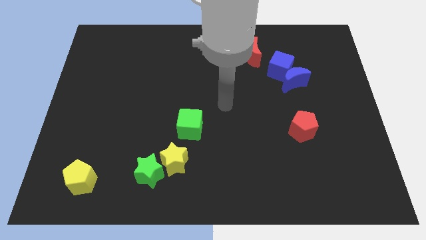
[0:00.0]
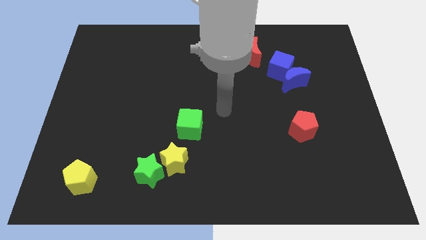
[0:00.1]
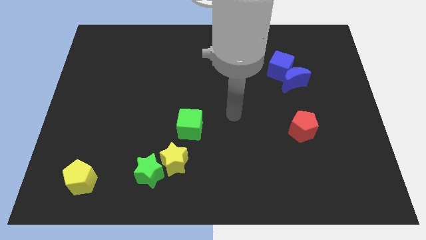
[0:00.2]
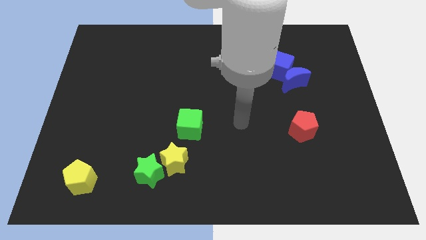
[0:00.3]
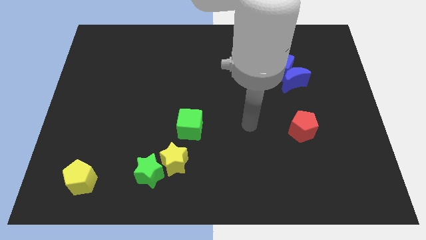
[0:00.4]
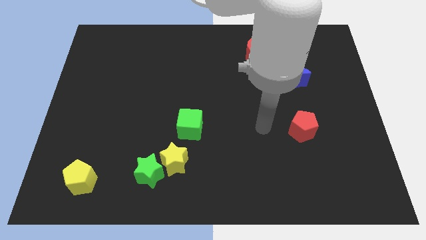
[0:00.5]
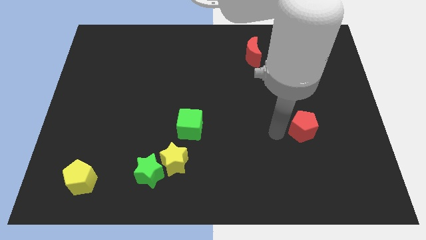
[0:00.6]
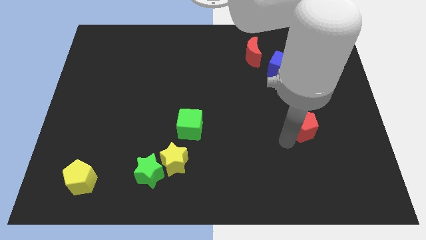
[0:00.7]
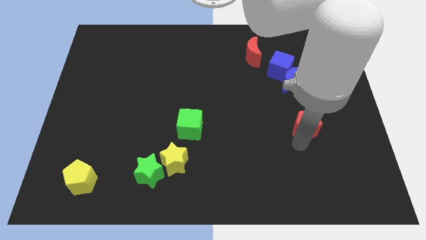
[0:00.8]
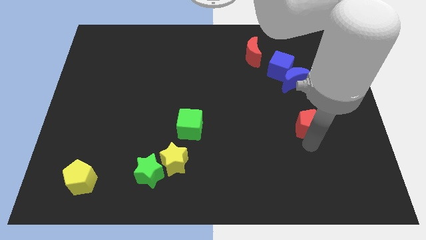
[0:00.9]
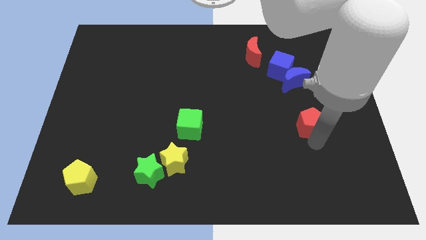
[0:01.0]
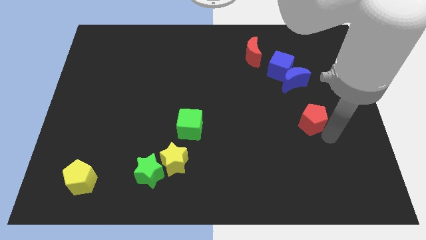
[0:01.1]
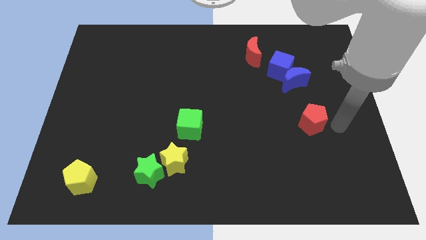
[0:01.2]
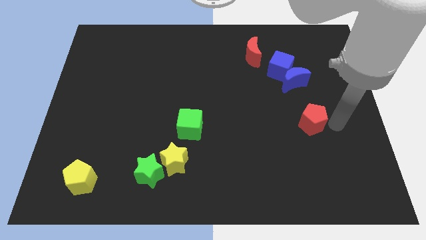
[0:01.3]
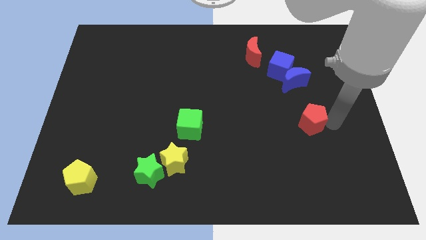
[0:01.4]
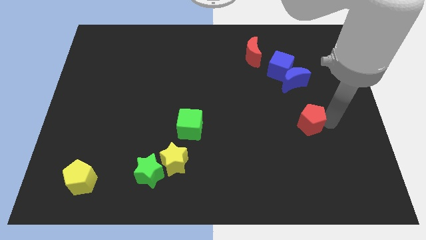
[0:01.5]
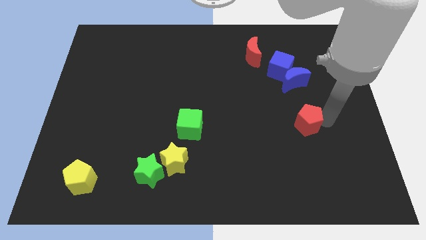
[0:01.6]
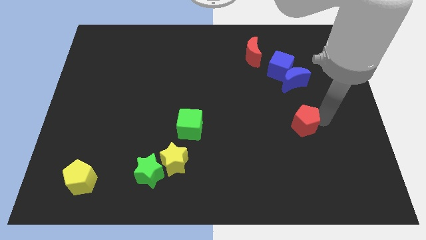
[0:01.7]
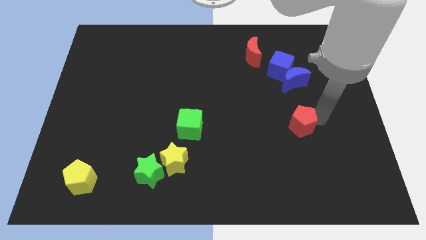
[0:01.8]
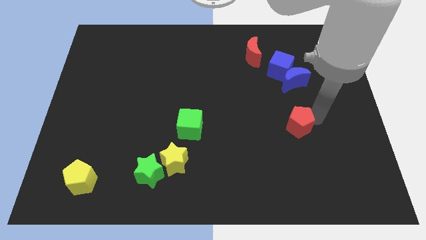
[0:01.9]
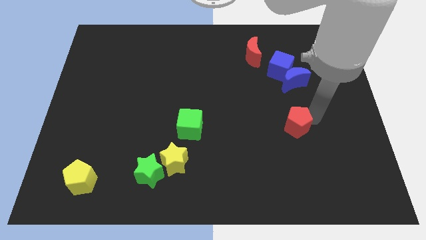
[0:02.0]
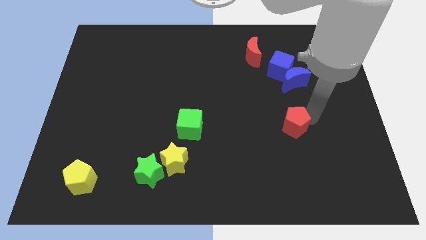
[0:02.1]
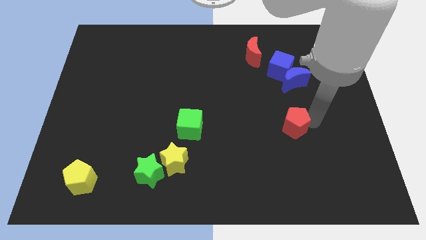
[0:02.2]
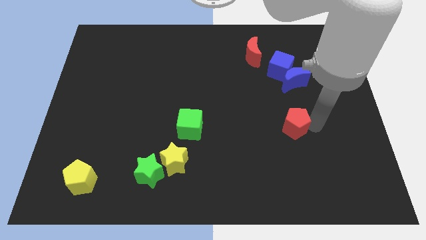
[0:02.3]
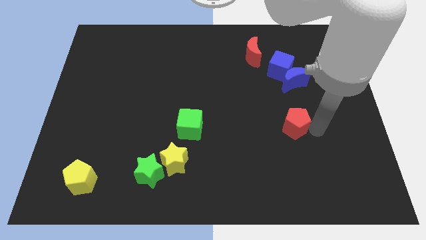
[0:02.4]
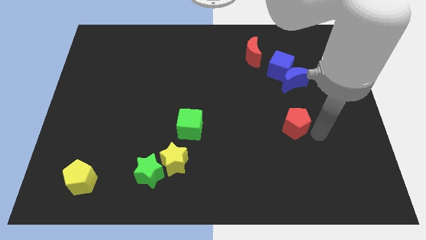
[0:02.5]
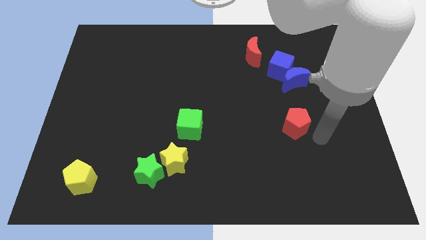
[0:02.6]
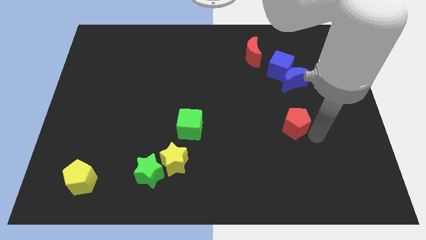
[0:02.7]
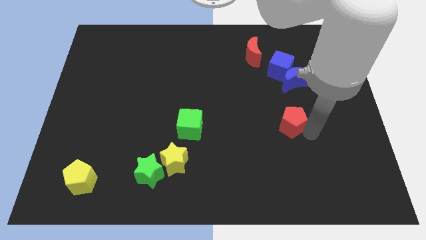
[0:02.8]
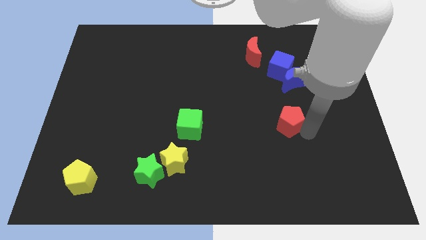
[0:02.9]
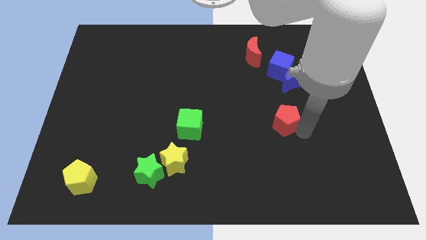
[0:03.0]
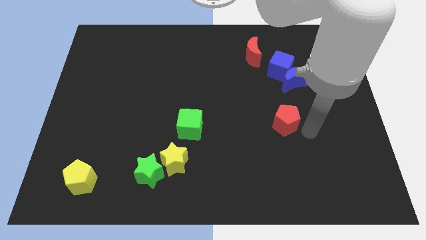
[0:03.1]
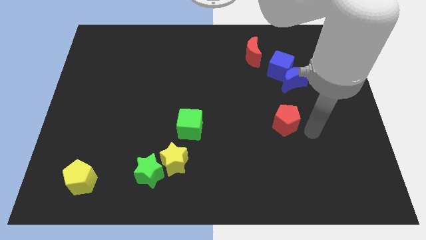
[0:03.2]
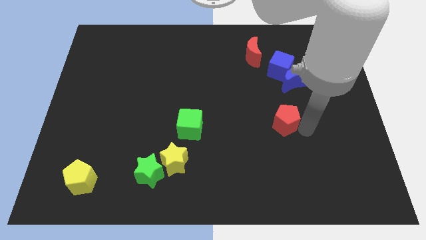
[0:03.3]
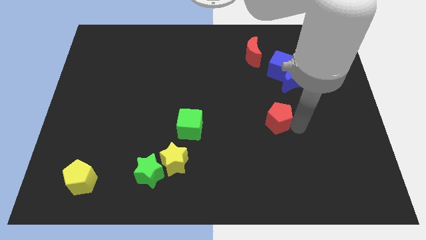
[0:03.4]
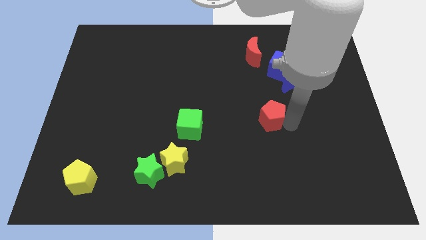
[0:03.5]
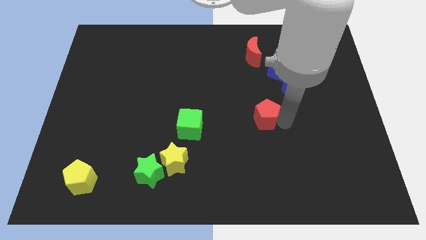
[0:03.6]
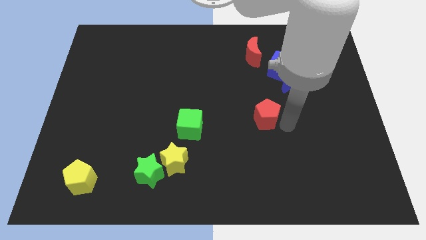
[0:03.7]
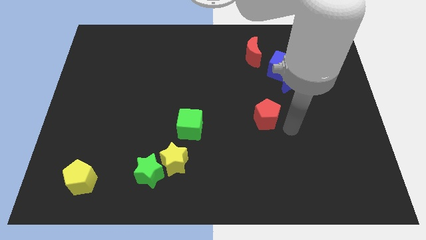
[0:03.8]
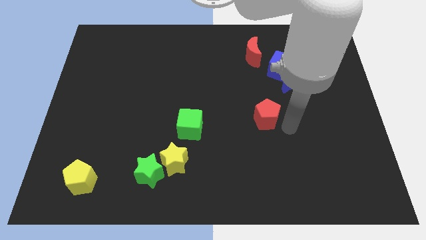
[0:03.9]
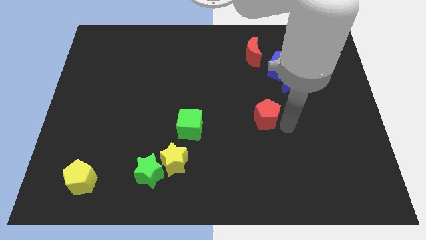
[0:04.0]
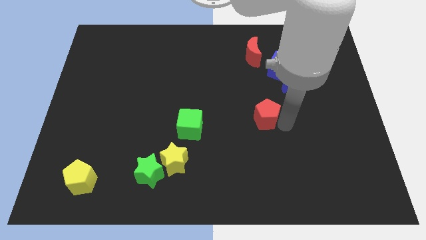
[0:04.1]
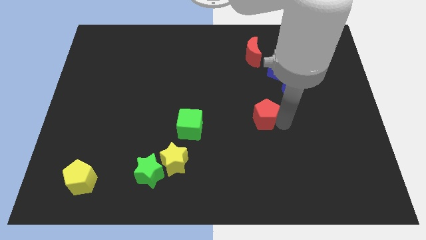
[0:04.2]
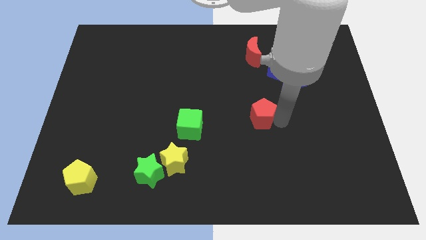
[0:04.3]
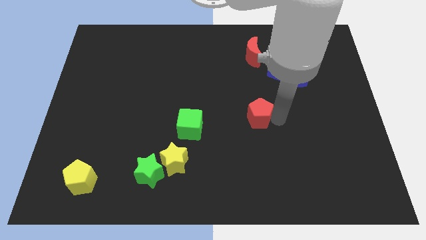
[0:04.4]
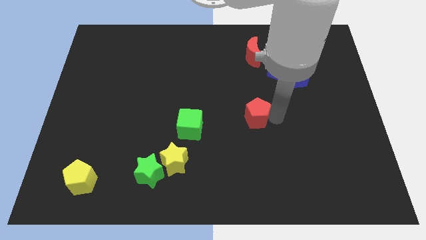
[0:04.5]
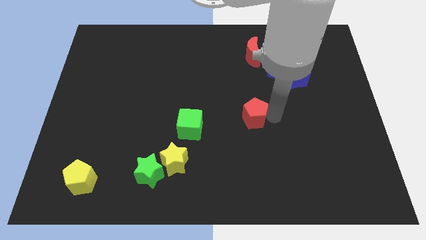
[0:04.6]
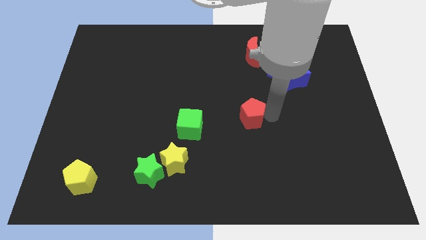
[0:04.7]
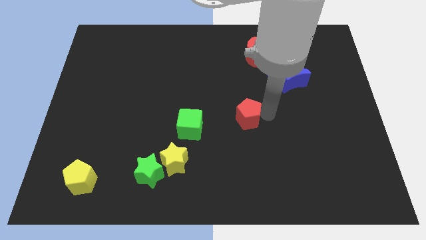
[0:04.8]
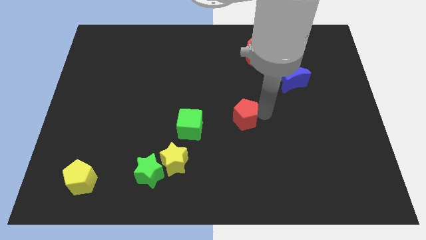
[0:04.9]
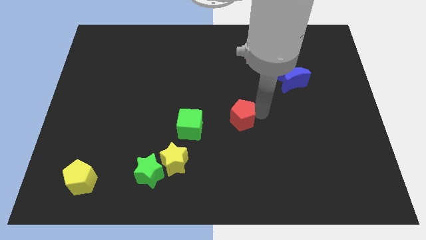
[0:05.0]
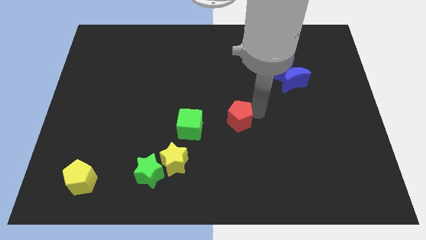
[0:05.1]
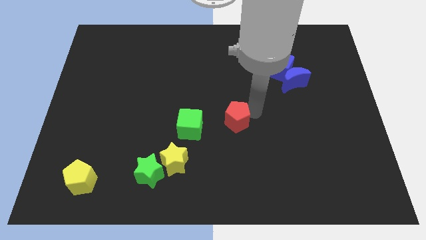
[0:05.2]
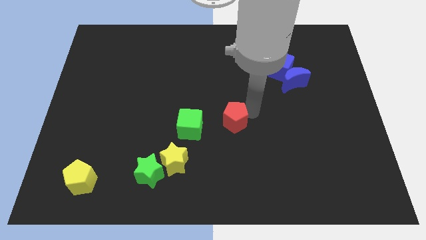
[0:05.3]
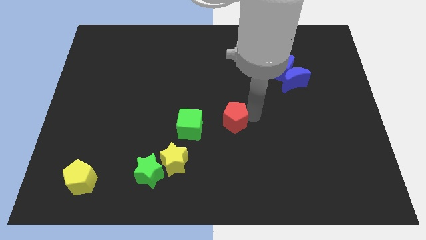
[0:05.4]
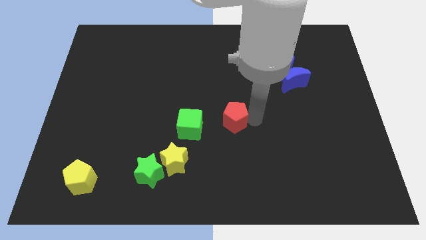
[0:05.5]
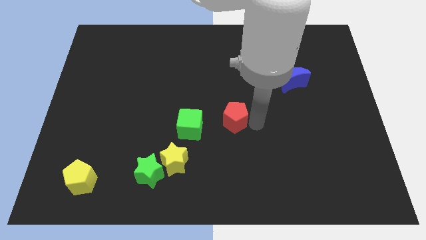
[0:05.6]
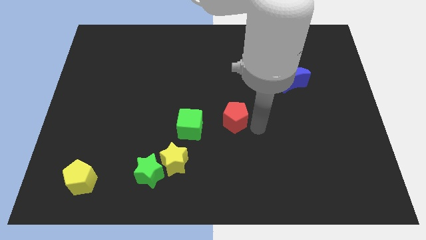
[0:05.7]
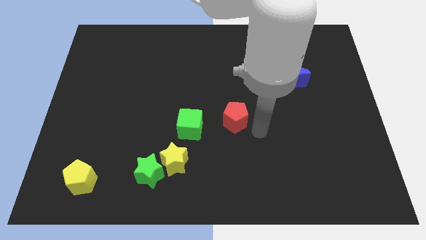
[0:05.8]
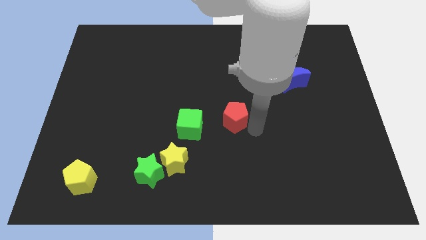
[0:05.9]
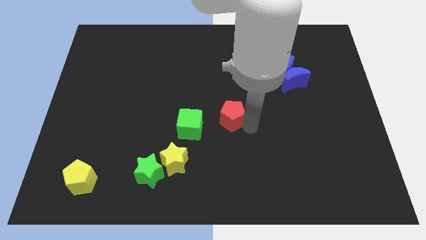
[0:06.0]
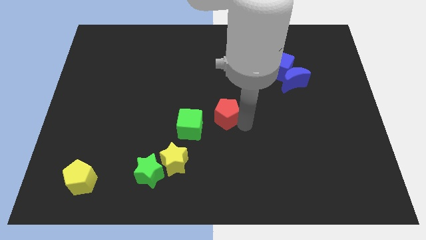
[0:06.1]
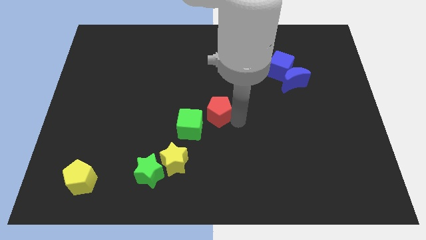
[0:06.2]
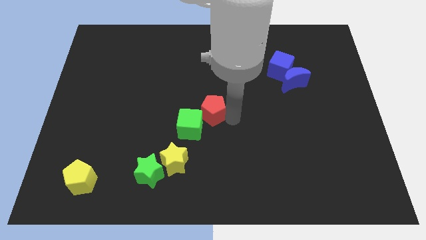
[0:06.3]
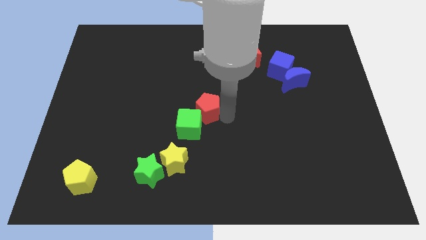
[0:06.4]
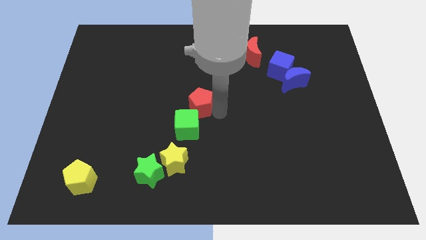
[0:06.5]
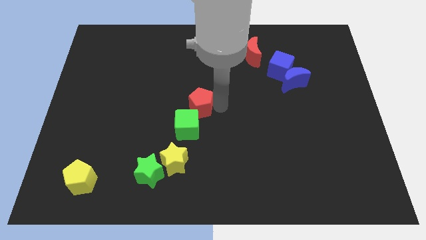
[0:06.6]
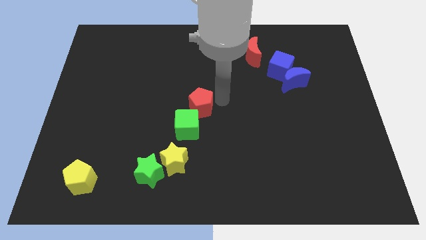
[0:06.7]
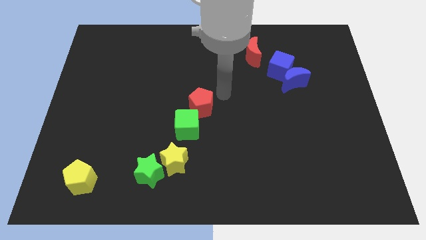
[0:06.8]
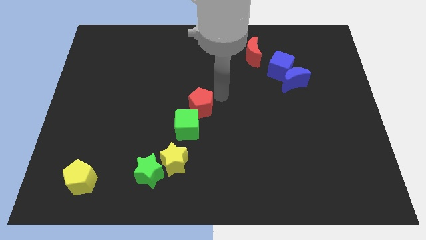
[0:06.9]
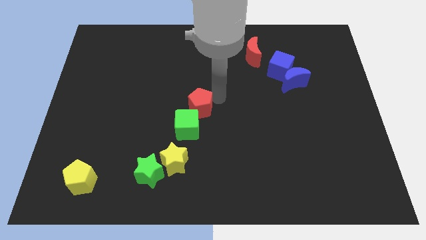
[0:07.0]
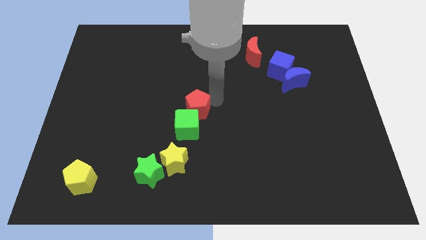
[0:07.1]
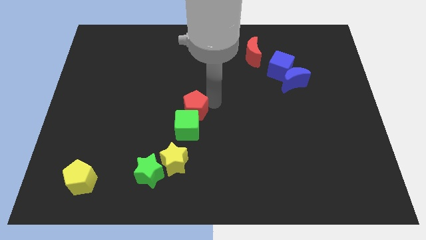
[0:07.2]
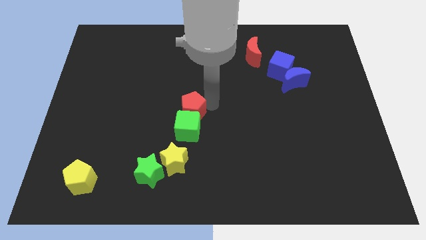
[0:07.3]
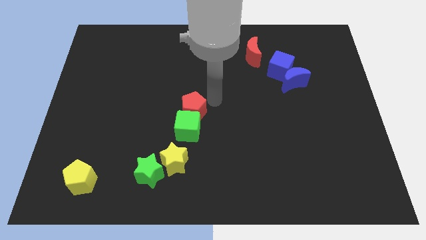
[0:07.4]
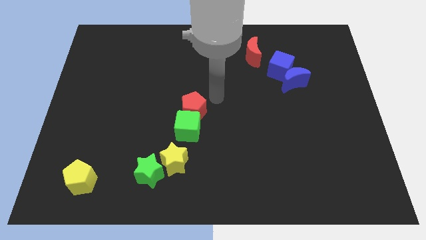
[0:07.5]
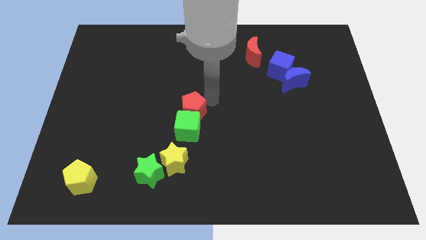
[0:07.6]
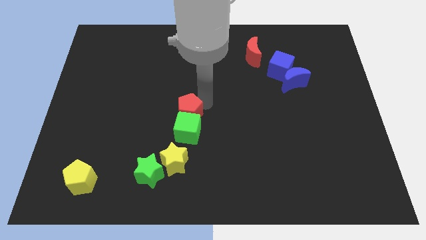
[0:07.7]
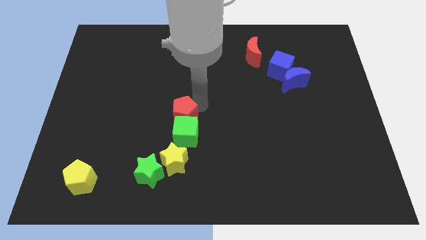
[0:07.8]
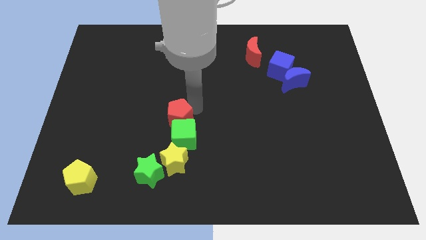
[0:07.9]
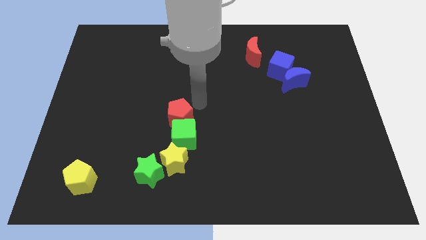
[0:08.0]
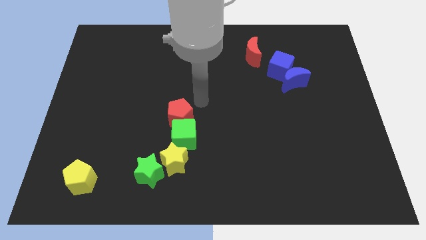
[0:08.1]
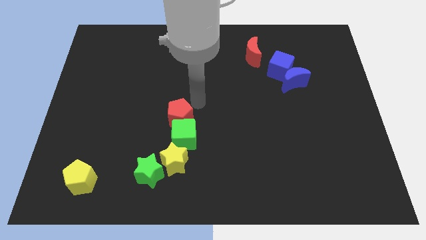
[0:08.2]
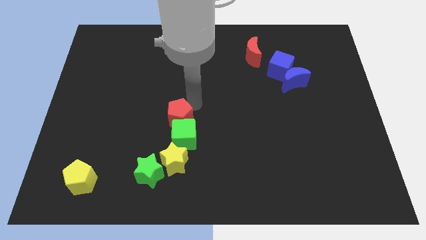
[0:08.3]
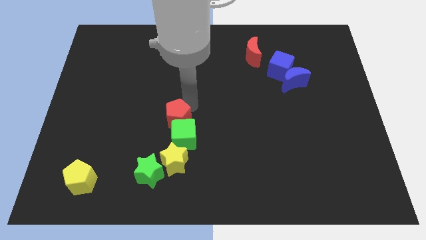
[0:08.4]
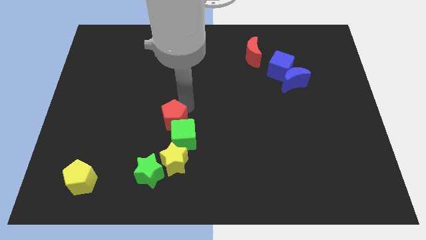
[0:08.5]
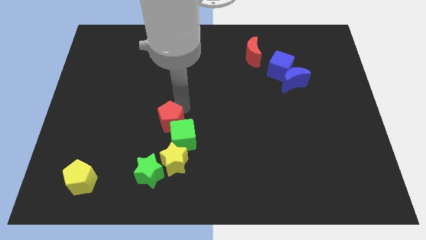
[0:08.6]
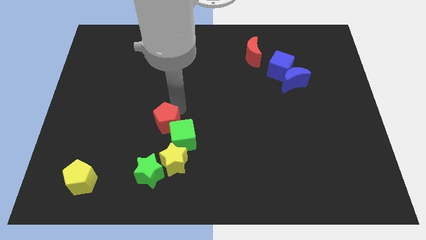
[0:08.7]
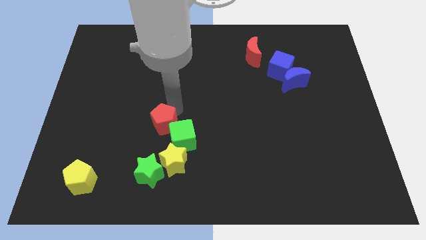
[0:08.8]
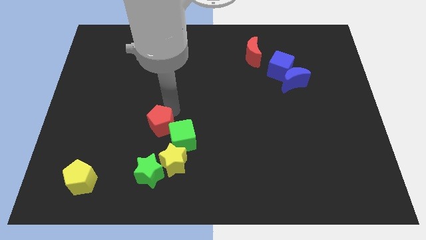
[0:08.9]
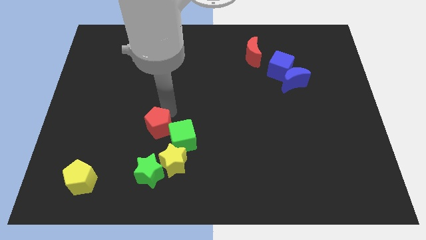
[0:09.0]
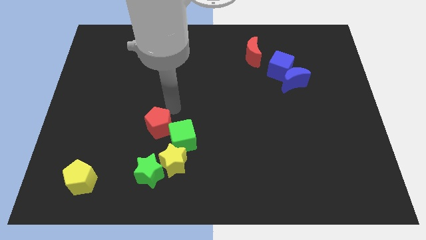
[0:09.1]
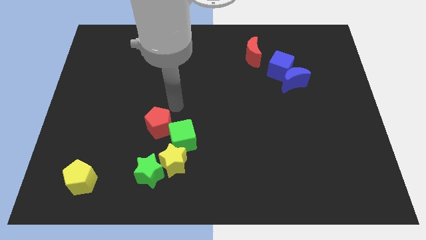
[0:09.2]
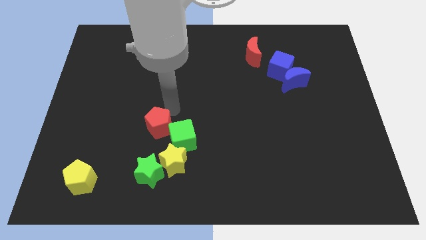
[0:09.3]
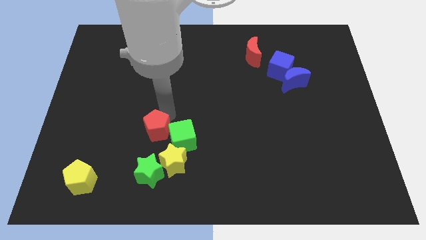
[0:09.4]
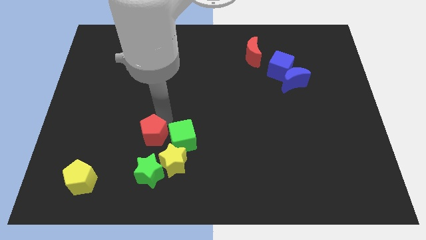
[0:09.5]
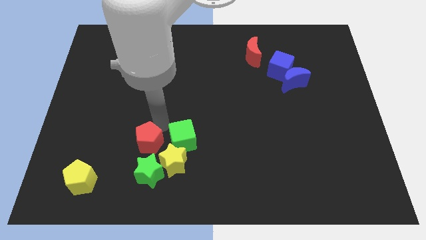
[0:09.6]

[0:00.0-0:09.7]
slide the red pentagon to the top left of the green star
